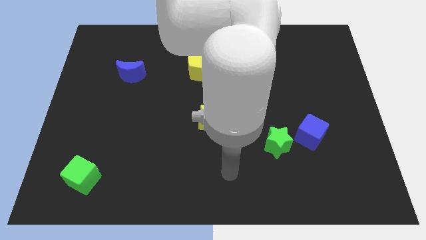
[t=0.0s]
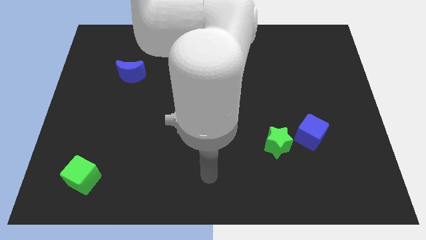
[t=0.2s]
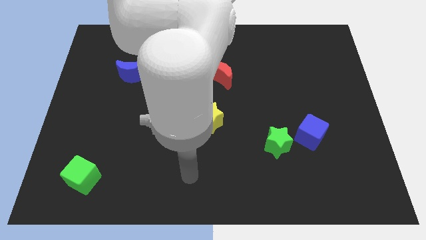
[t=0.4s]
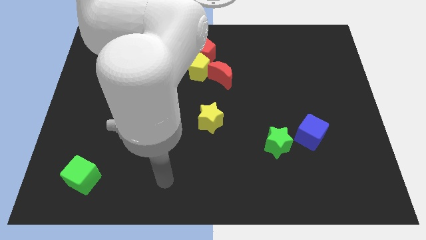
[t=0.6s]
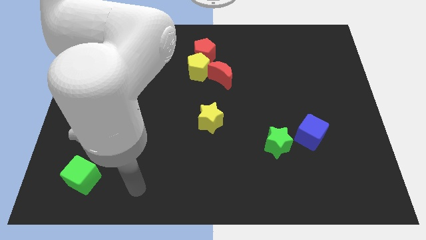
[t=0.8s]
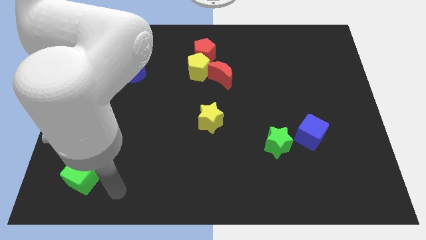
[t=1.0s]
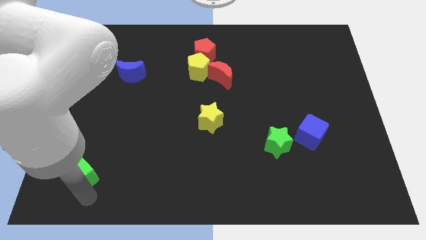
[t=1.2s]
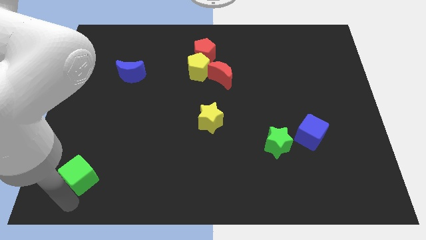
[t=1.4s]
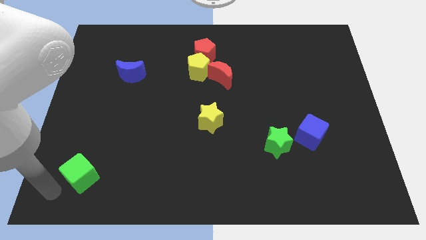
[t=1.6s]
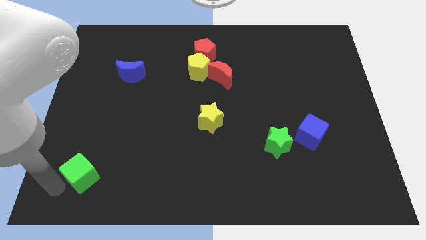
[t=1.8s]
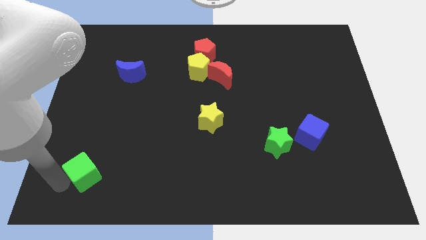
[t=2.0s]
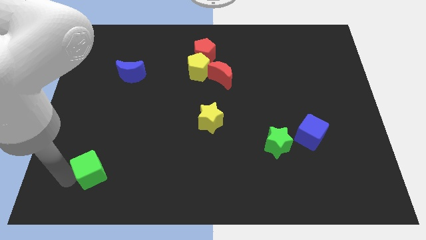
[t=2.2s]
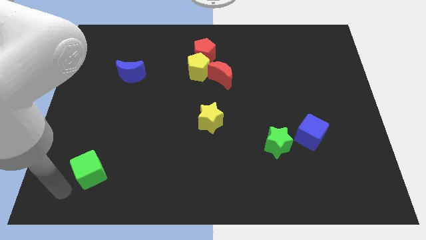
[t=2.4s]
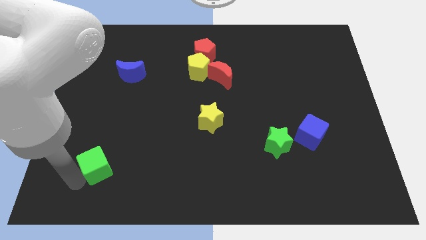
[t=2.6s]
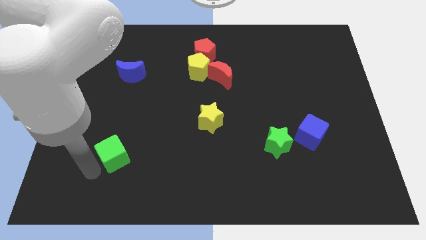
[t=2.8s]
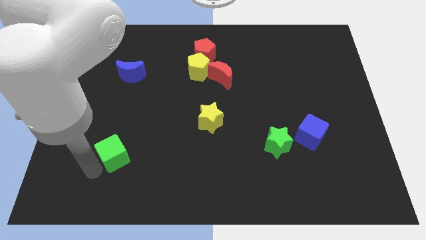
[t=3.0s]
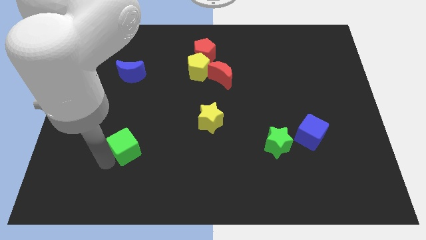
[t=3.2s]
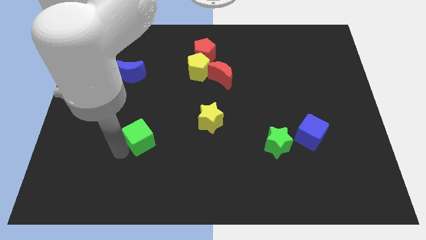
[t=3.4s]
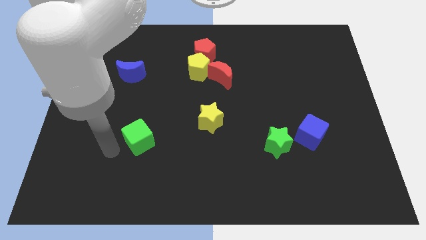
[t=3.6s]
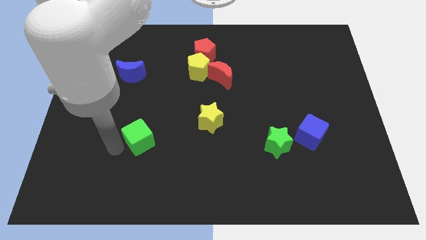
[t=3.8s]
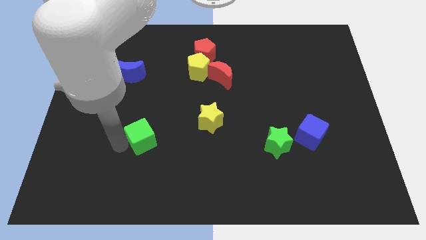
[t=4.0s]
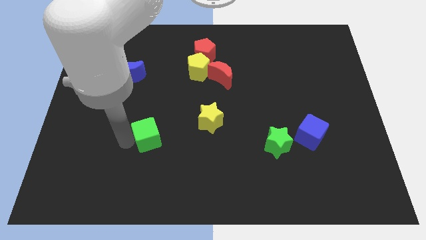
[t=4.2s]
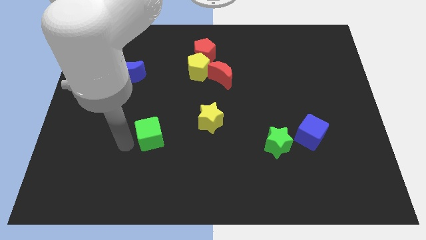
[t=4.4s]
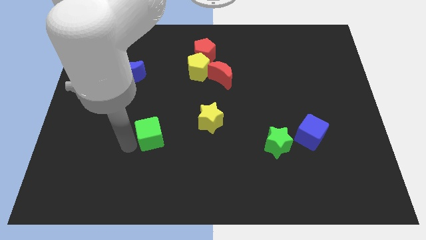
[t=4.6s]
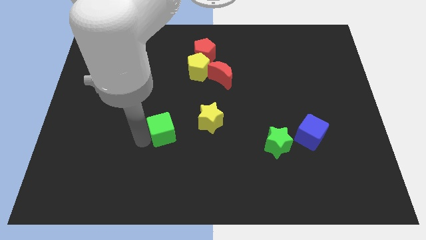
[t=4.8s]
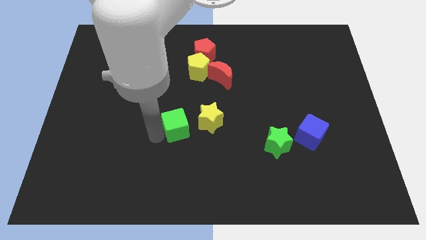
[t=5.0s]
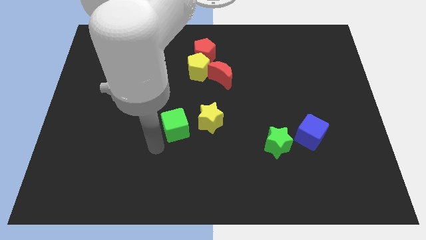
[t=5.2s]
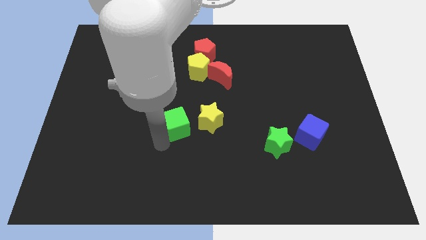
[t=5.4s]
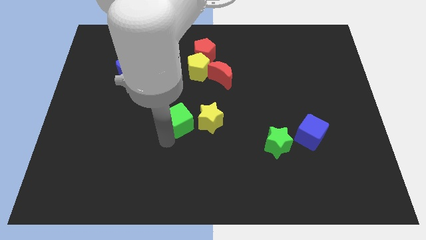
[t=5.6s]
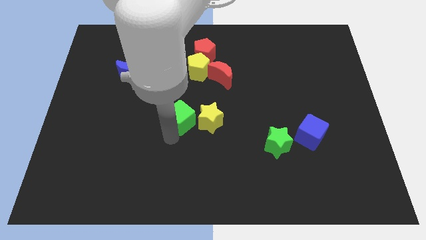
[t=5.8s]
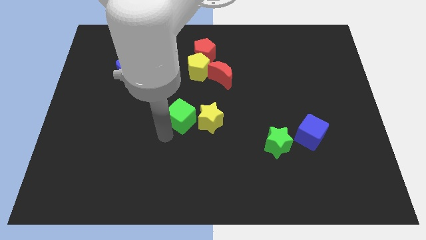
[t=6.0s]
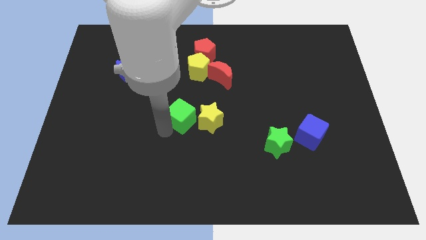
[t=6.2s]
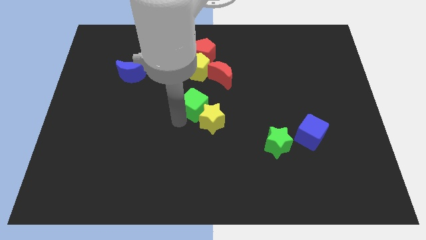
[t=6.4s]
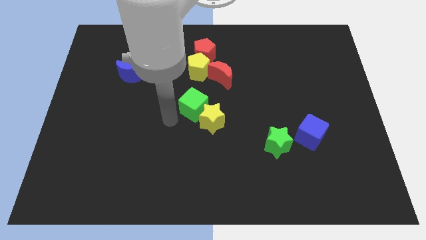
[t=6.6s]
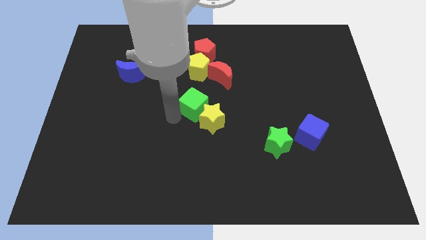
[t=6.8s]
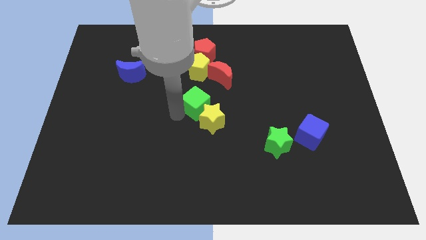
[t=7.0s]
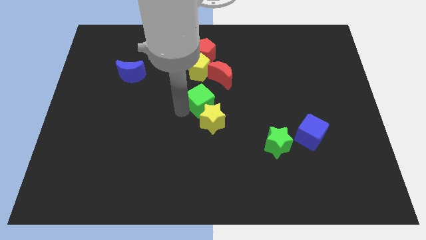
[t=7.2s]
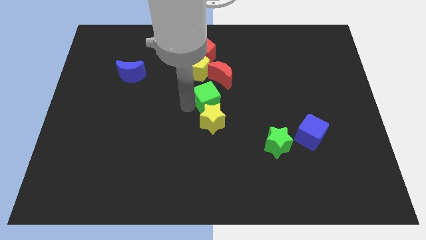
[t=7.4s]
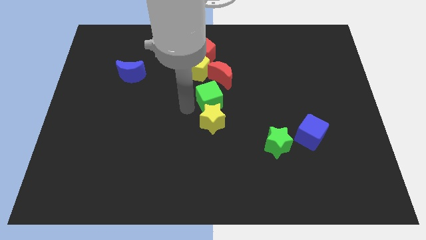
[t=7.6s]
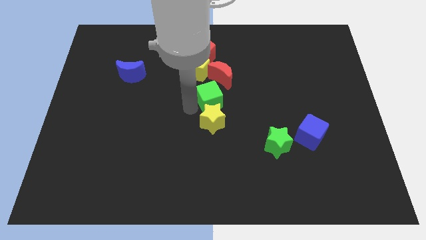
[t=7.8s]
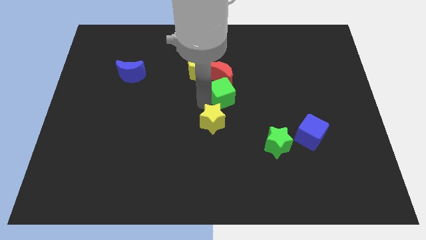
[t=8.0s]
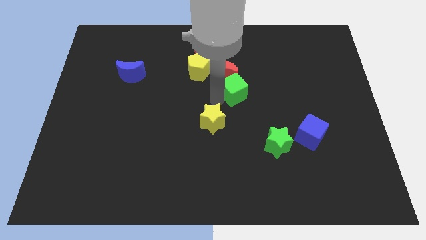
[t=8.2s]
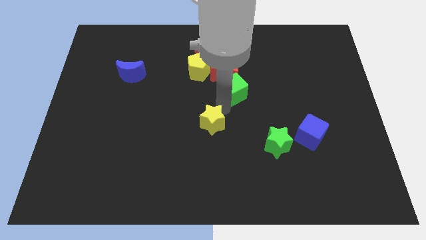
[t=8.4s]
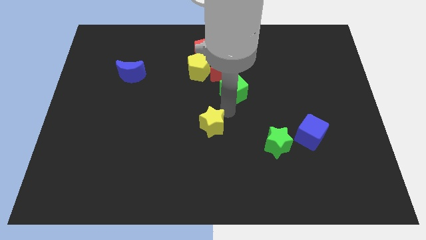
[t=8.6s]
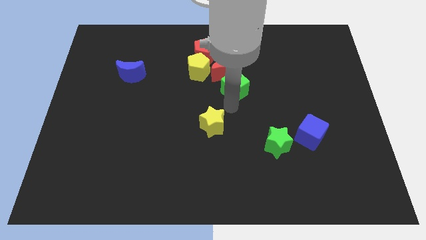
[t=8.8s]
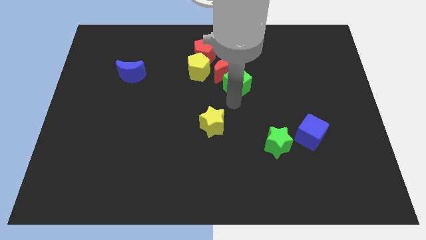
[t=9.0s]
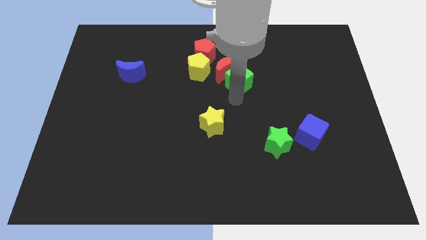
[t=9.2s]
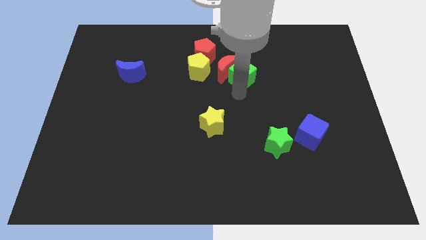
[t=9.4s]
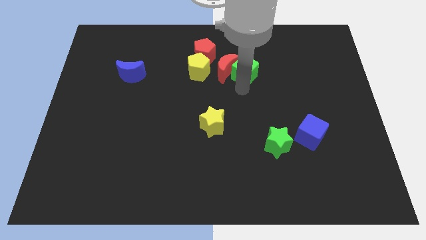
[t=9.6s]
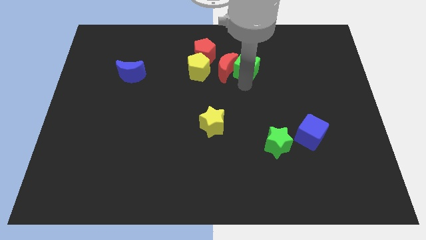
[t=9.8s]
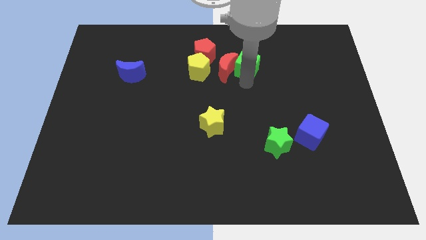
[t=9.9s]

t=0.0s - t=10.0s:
move the green cube just right of the red pentagon

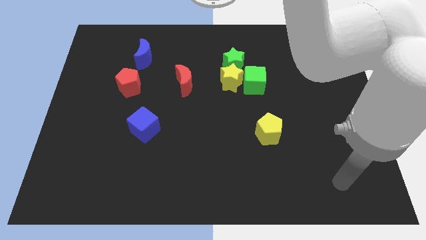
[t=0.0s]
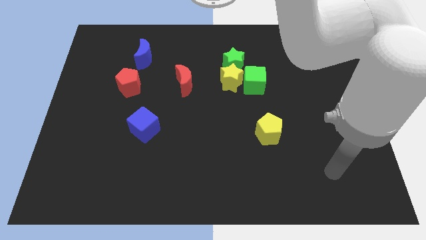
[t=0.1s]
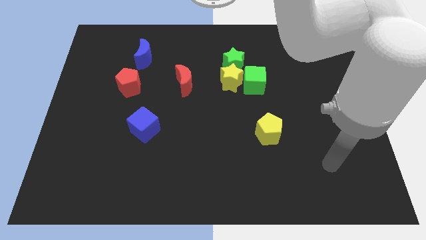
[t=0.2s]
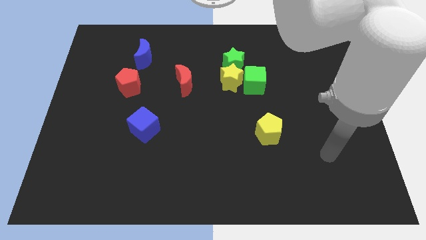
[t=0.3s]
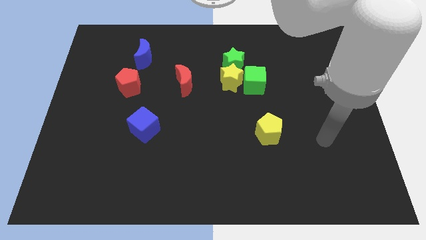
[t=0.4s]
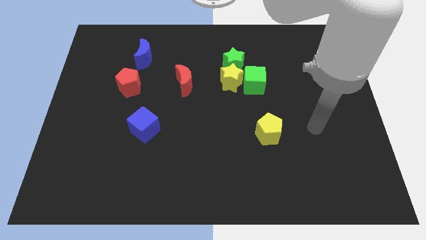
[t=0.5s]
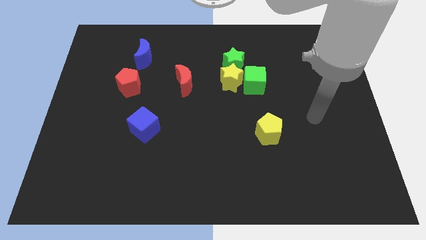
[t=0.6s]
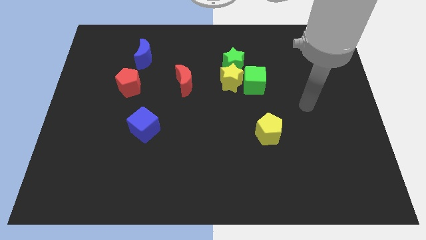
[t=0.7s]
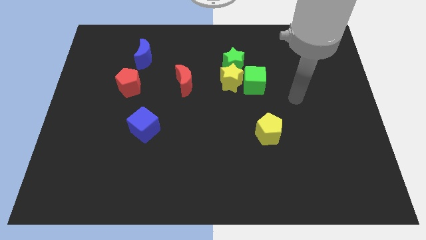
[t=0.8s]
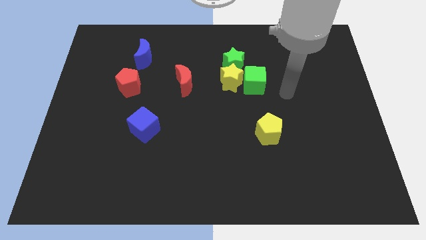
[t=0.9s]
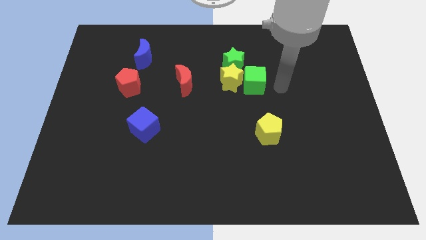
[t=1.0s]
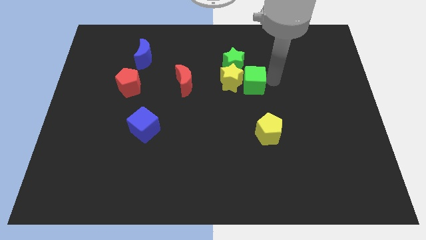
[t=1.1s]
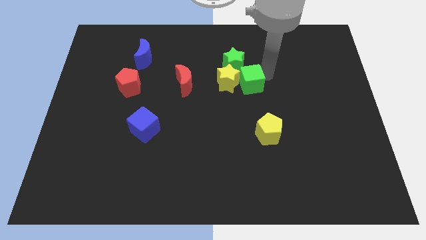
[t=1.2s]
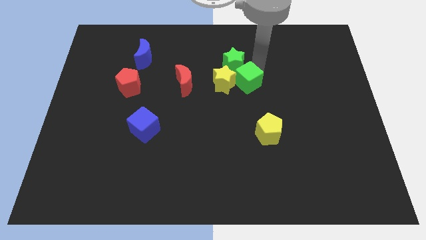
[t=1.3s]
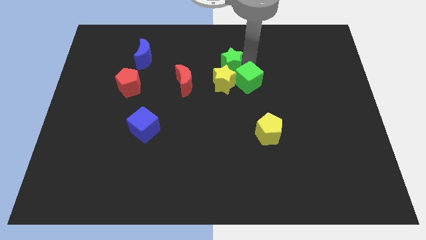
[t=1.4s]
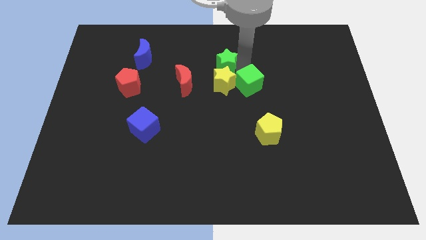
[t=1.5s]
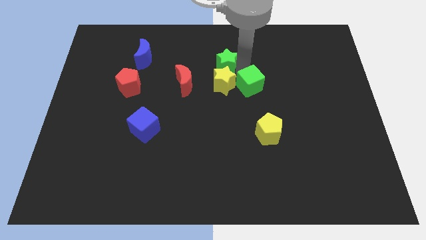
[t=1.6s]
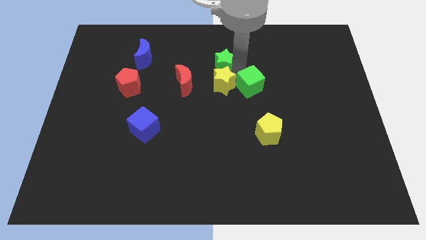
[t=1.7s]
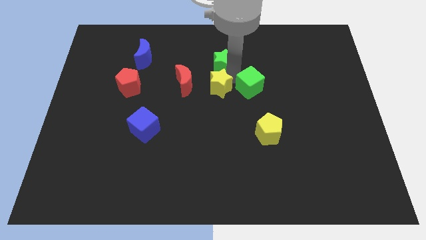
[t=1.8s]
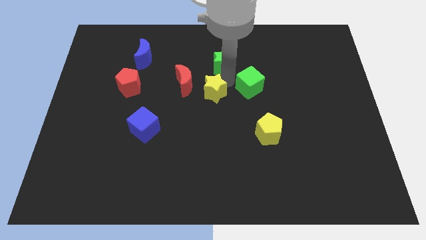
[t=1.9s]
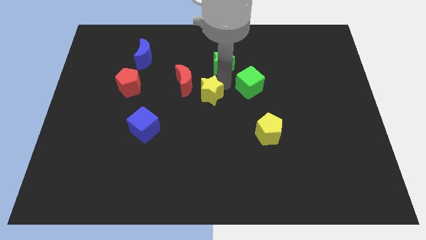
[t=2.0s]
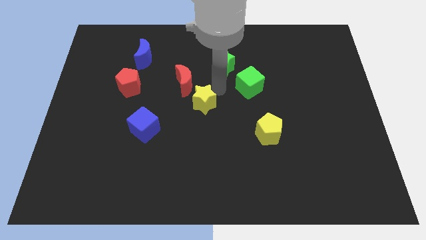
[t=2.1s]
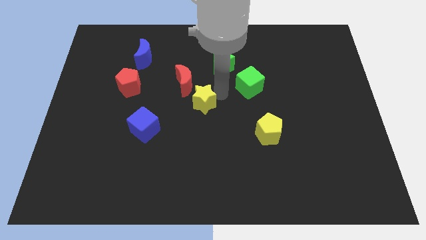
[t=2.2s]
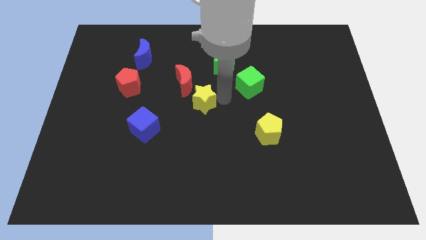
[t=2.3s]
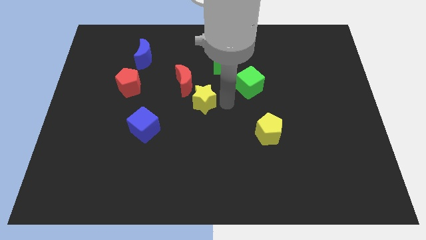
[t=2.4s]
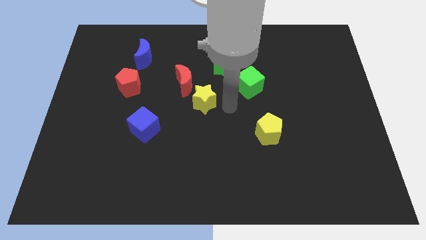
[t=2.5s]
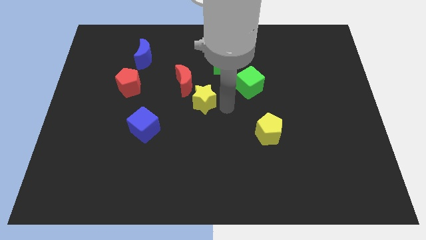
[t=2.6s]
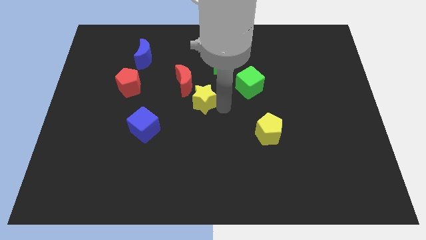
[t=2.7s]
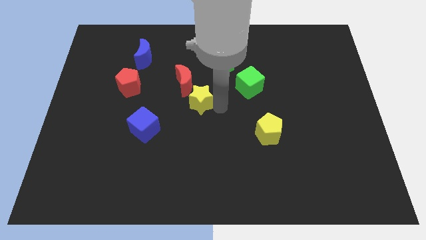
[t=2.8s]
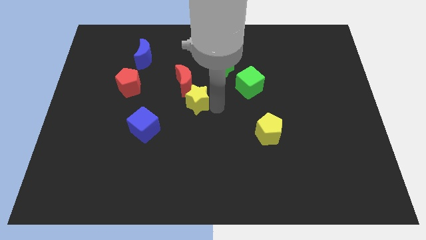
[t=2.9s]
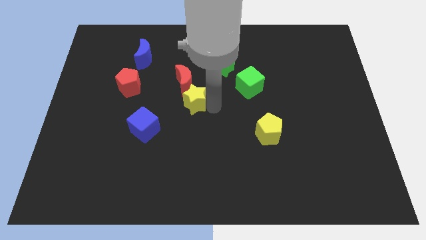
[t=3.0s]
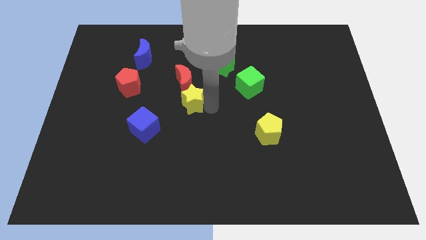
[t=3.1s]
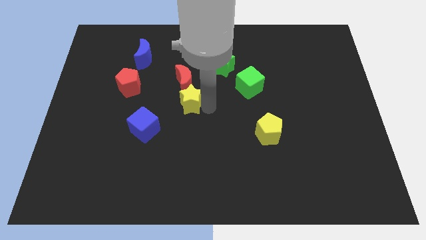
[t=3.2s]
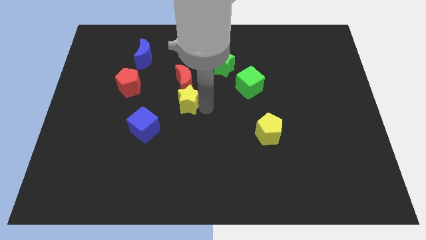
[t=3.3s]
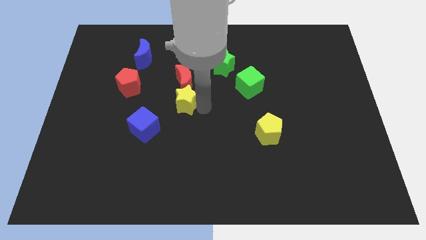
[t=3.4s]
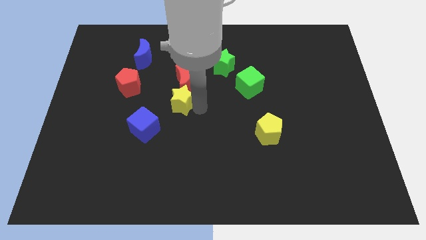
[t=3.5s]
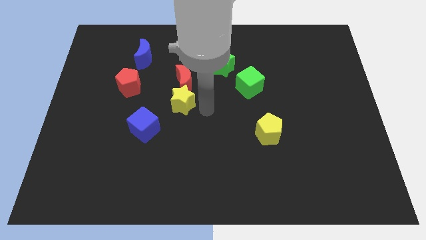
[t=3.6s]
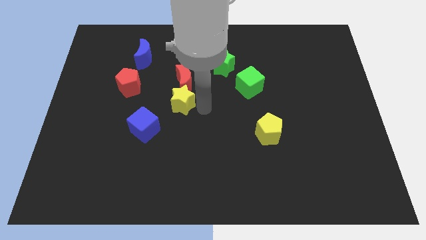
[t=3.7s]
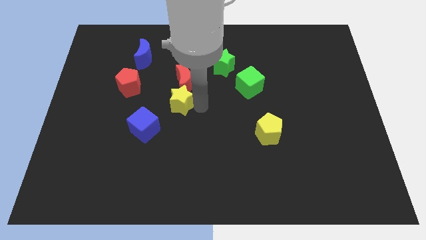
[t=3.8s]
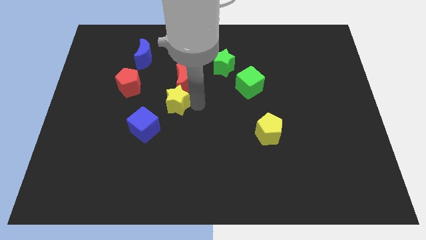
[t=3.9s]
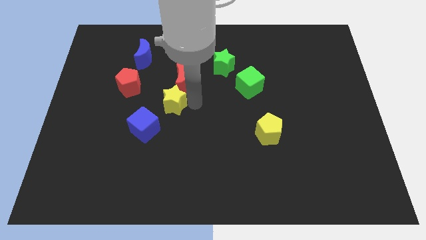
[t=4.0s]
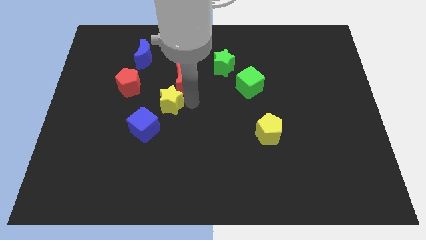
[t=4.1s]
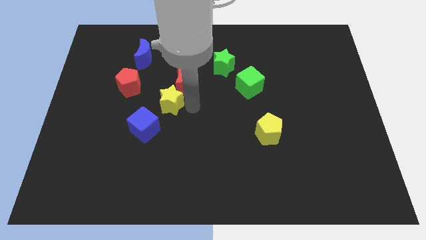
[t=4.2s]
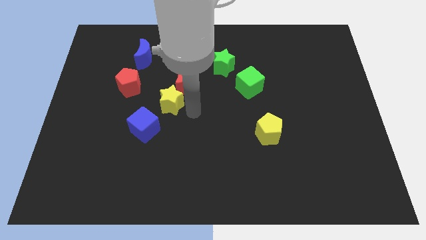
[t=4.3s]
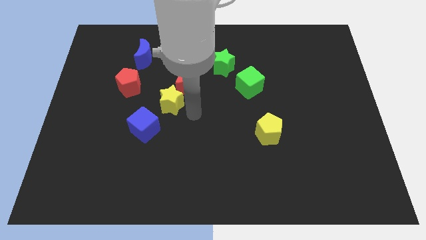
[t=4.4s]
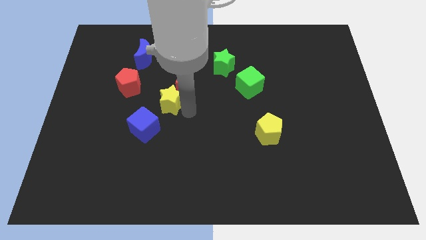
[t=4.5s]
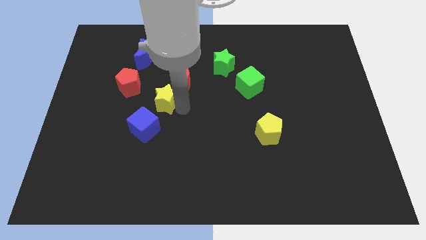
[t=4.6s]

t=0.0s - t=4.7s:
slide the yellow star to the top side of the blue cube
